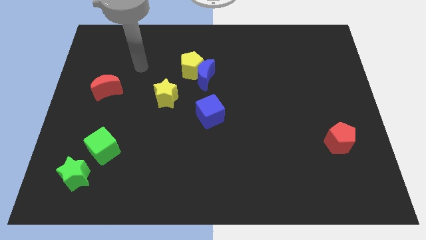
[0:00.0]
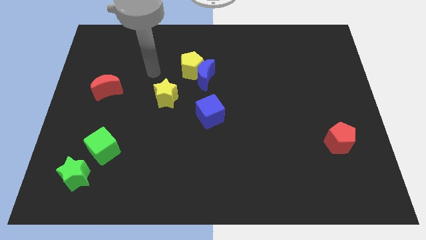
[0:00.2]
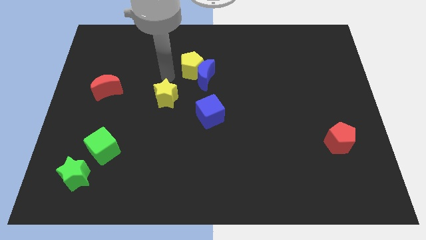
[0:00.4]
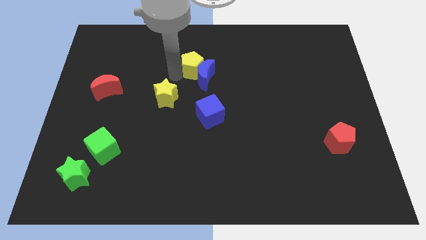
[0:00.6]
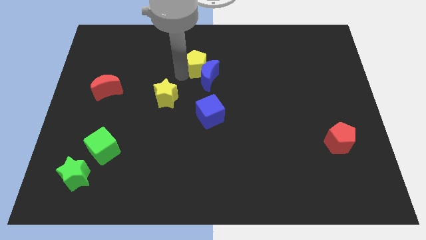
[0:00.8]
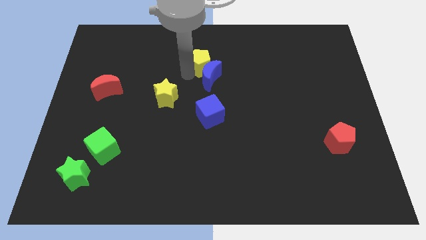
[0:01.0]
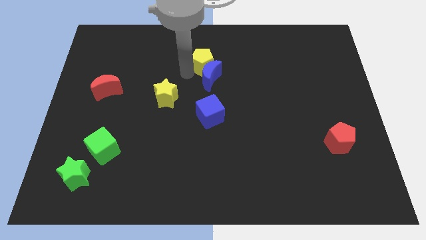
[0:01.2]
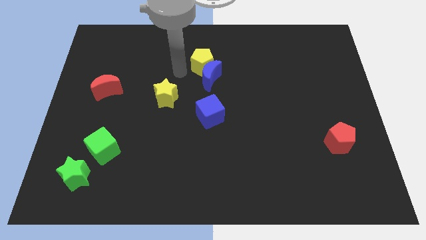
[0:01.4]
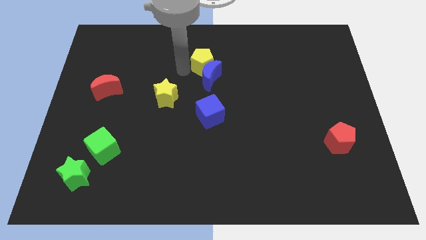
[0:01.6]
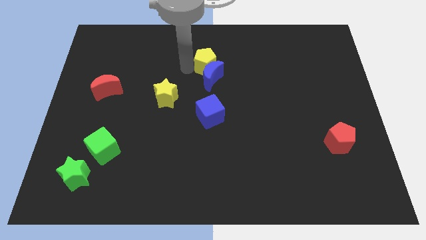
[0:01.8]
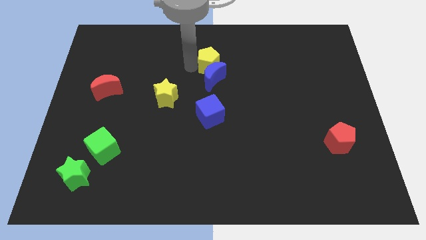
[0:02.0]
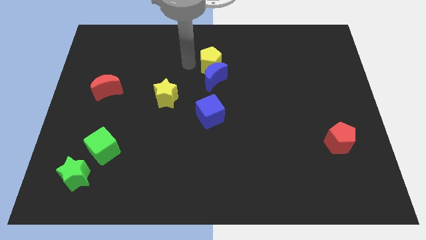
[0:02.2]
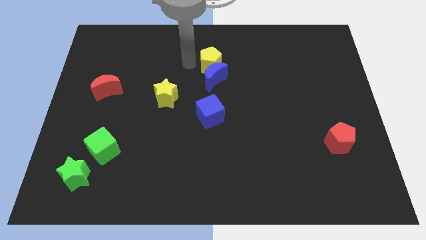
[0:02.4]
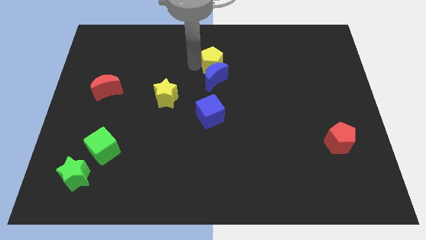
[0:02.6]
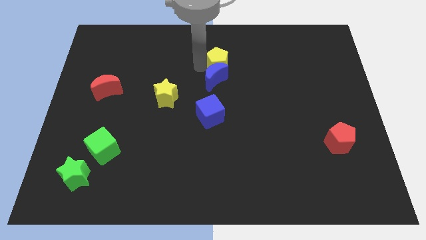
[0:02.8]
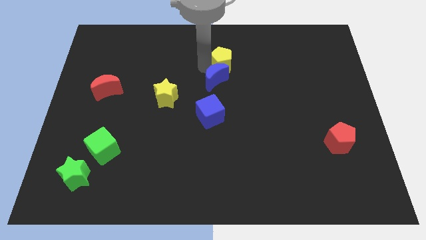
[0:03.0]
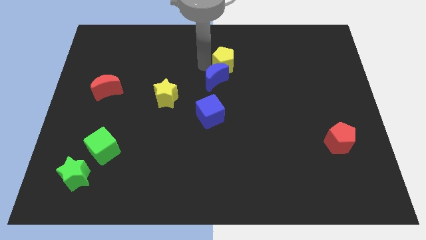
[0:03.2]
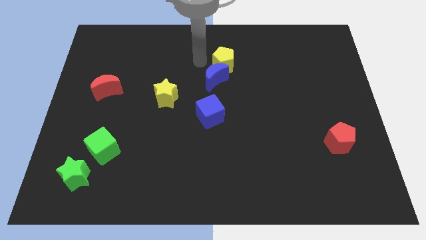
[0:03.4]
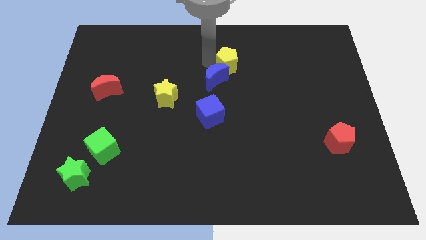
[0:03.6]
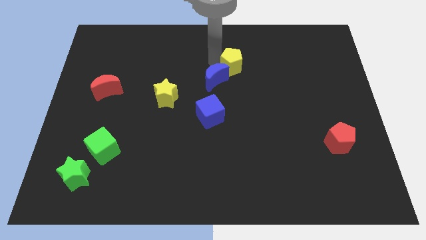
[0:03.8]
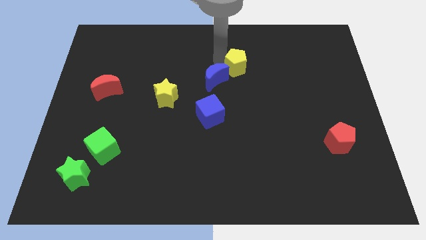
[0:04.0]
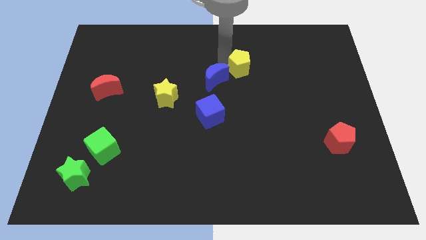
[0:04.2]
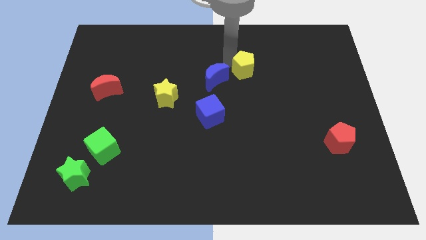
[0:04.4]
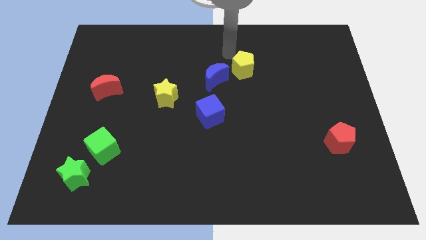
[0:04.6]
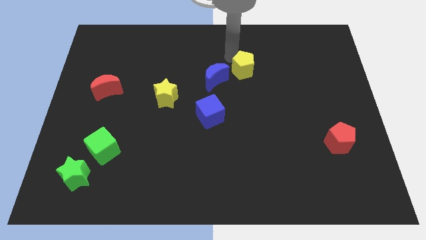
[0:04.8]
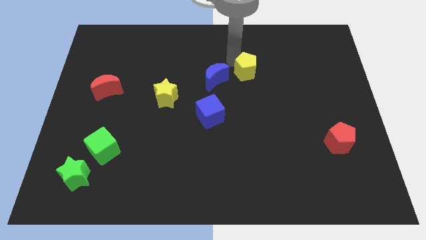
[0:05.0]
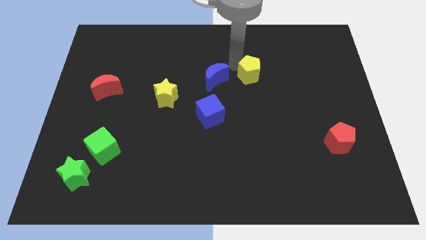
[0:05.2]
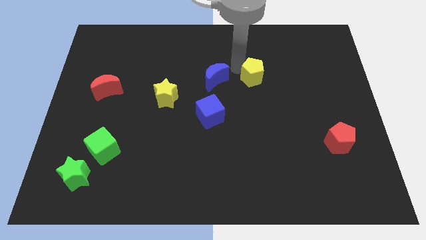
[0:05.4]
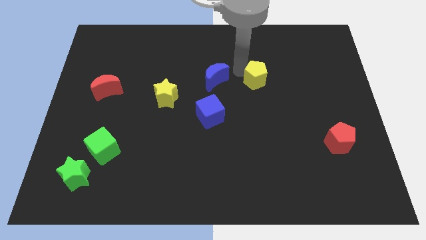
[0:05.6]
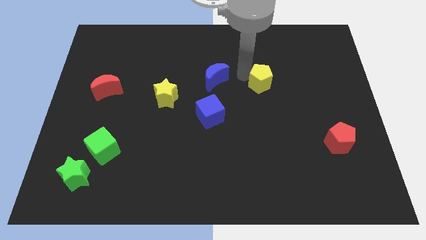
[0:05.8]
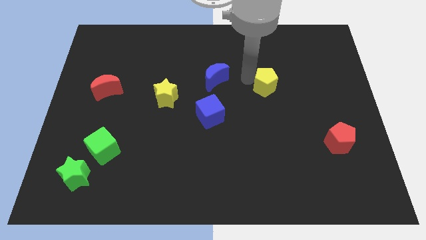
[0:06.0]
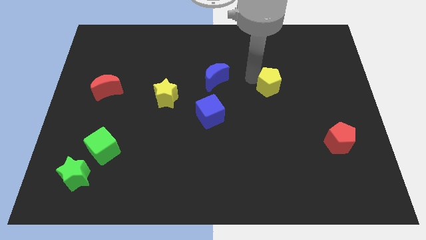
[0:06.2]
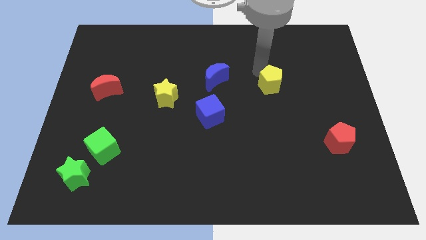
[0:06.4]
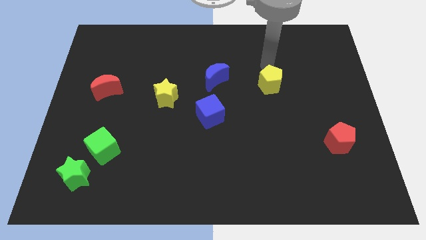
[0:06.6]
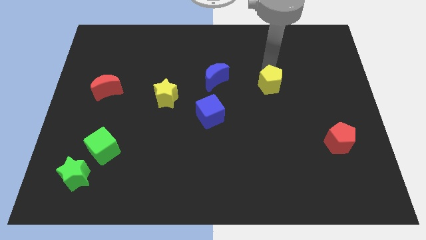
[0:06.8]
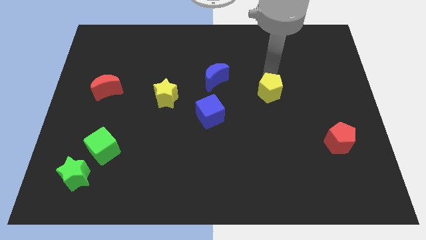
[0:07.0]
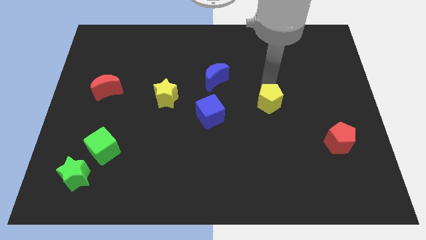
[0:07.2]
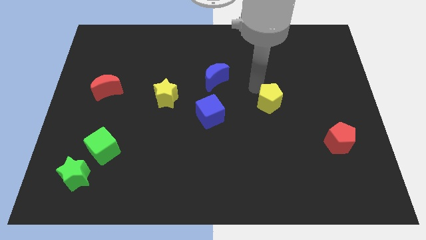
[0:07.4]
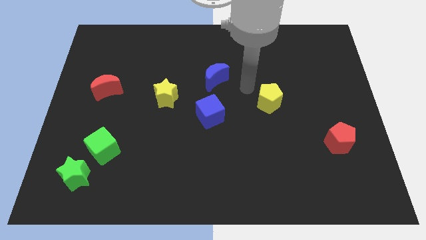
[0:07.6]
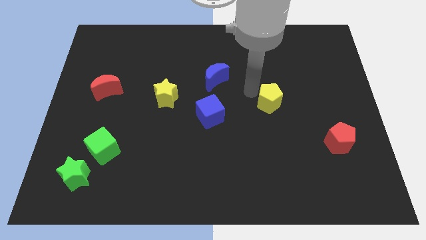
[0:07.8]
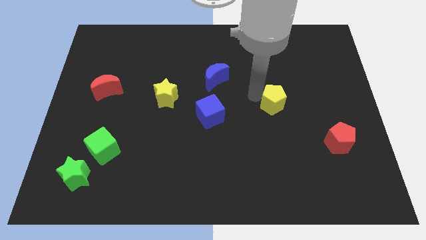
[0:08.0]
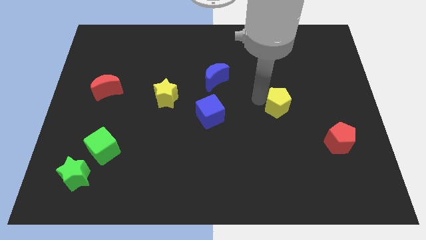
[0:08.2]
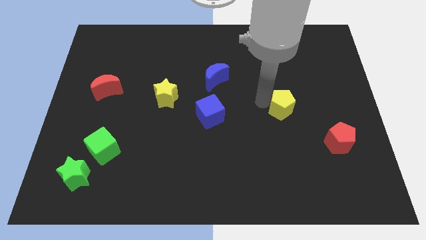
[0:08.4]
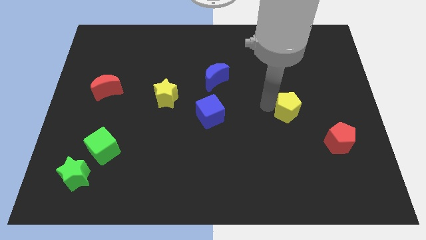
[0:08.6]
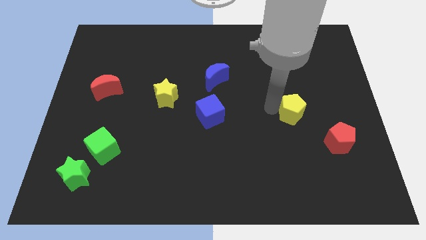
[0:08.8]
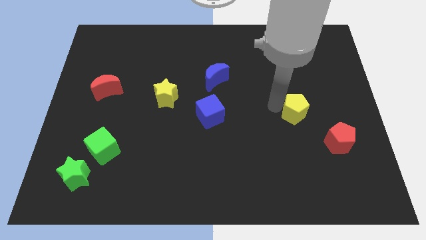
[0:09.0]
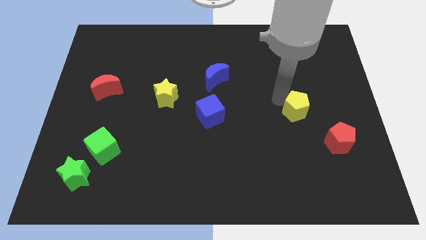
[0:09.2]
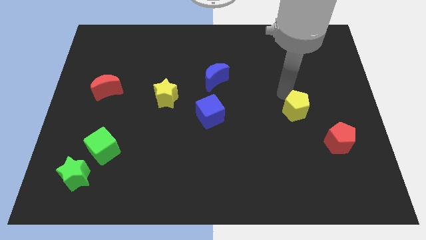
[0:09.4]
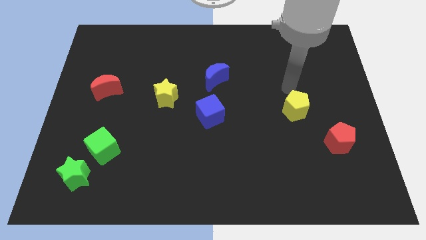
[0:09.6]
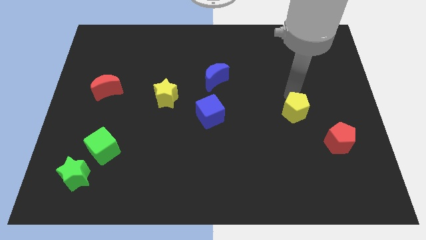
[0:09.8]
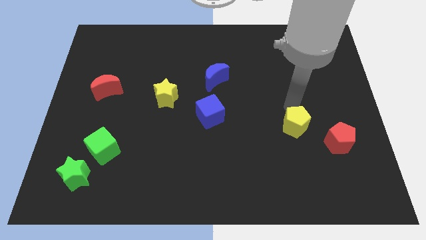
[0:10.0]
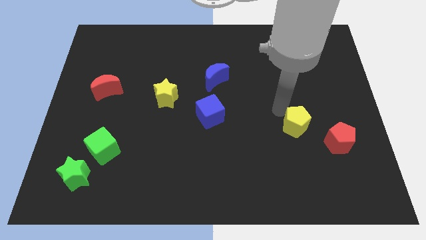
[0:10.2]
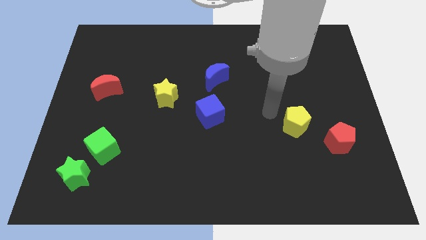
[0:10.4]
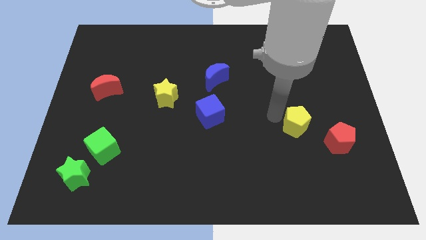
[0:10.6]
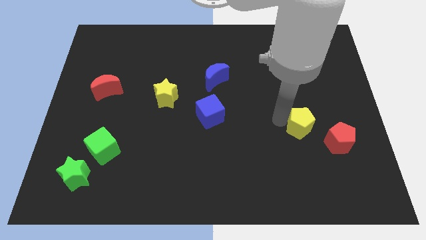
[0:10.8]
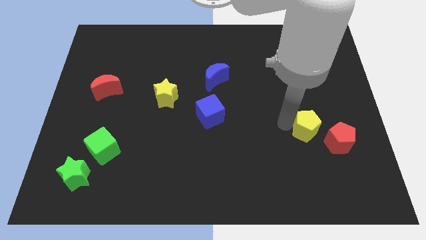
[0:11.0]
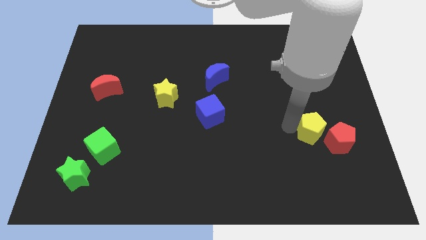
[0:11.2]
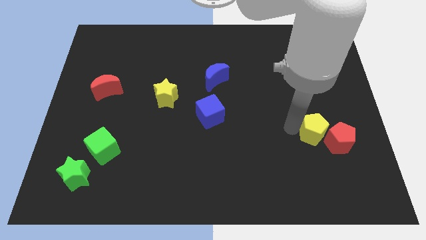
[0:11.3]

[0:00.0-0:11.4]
put the yellow pentagon to the red pentagon
